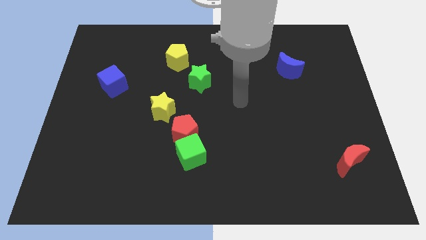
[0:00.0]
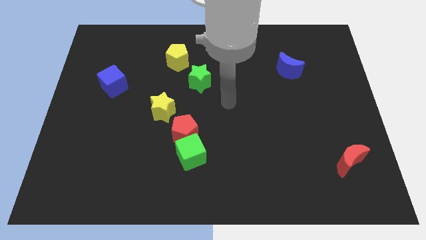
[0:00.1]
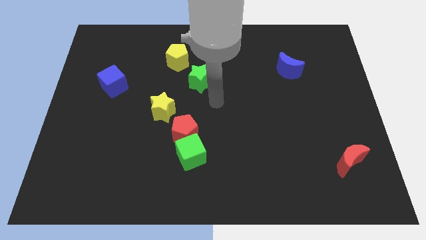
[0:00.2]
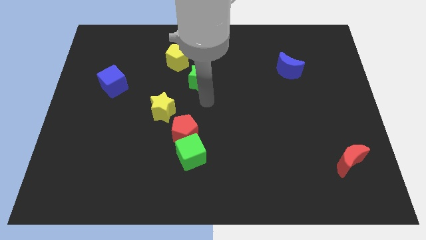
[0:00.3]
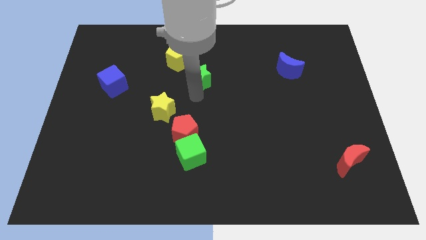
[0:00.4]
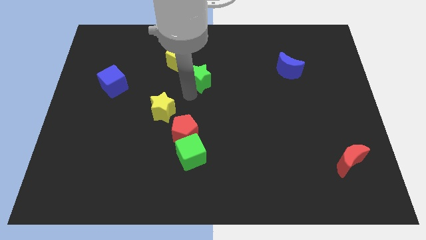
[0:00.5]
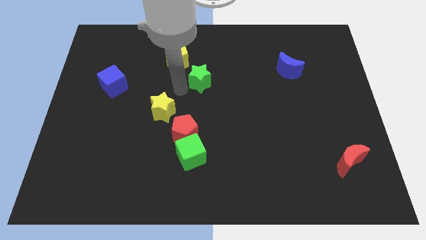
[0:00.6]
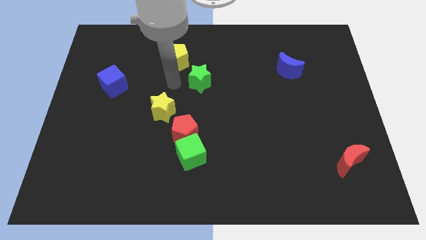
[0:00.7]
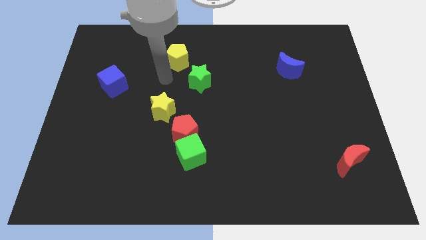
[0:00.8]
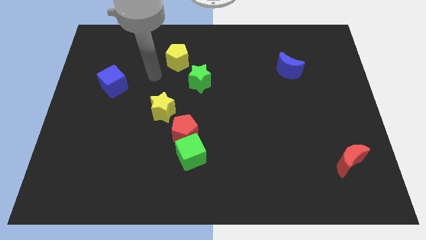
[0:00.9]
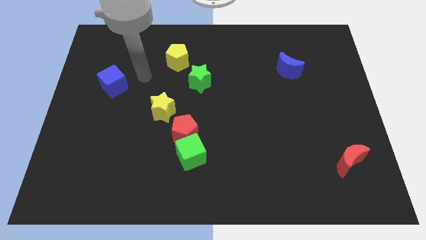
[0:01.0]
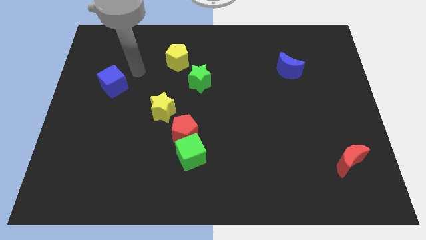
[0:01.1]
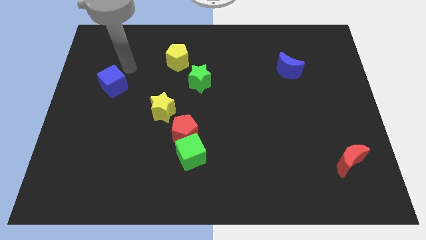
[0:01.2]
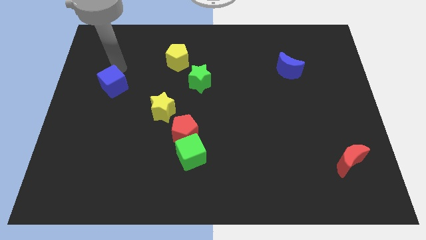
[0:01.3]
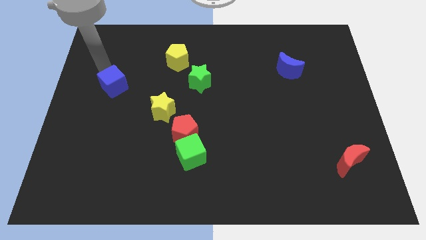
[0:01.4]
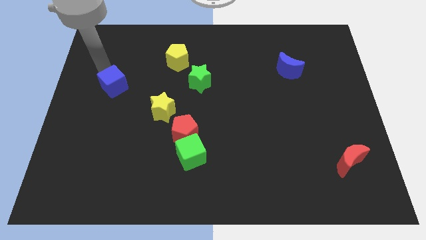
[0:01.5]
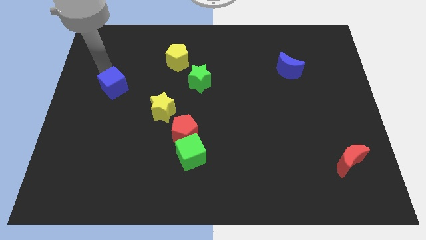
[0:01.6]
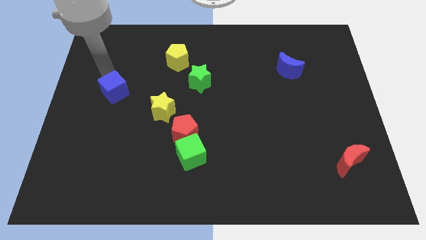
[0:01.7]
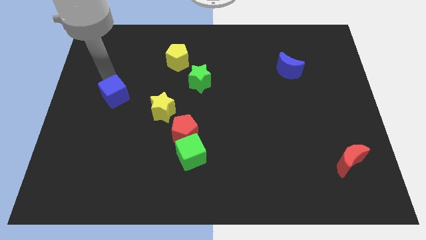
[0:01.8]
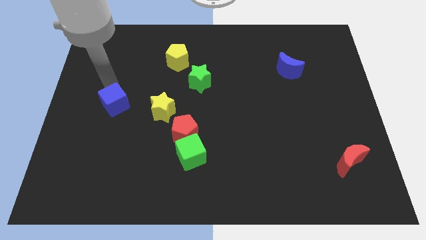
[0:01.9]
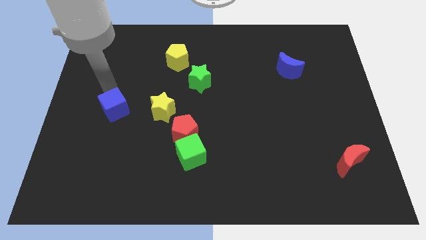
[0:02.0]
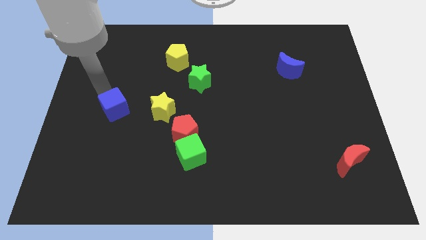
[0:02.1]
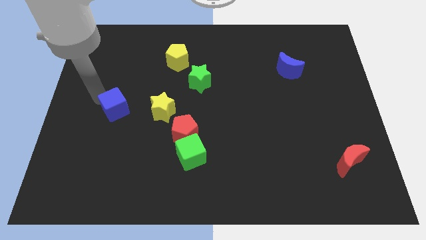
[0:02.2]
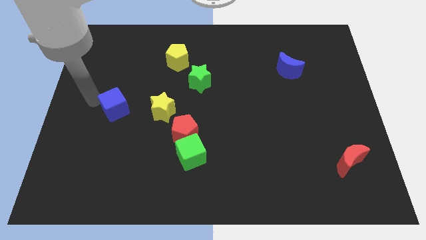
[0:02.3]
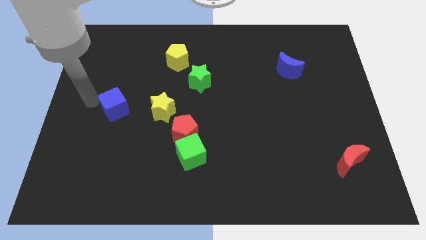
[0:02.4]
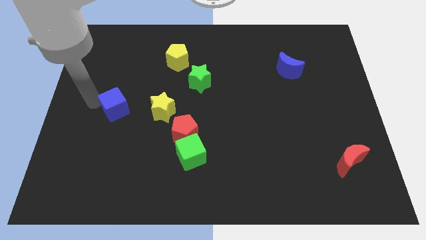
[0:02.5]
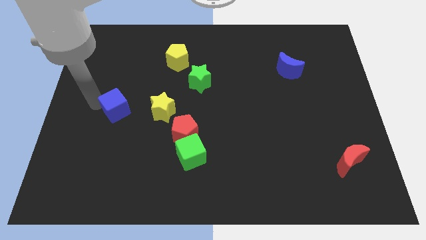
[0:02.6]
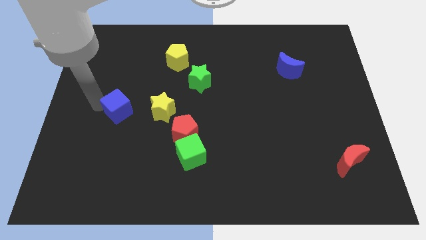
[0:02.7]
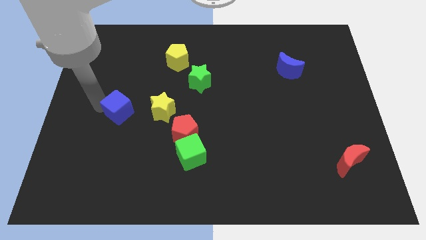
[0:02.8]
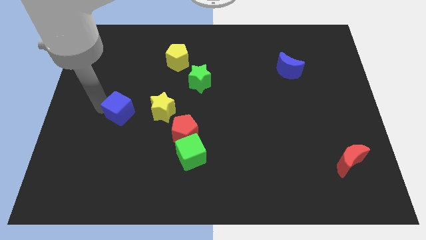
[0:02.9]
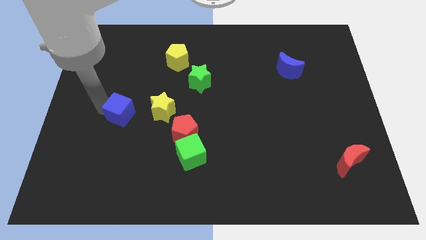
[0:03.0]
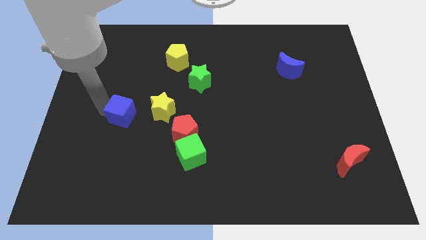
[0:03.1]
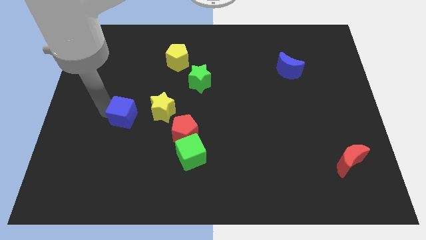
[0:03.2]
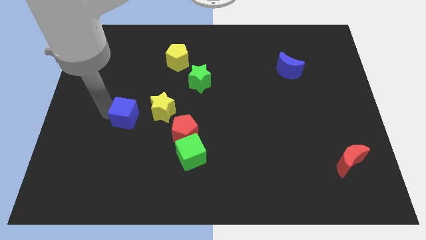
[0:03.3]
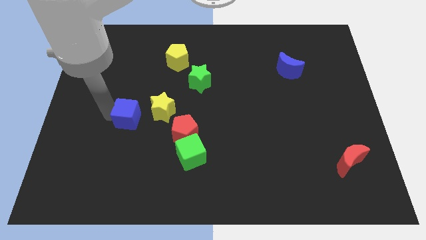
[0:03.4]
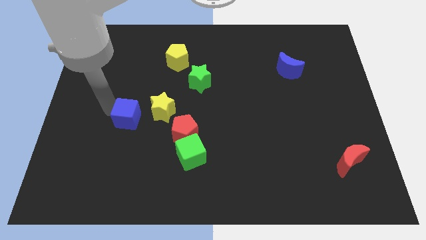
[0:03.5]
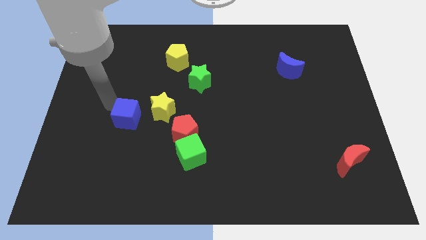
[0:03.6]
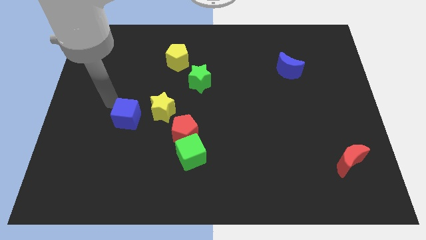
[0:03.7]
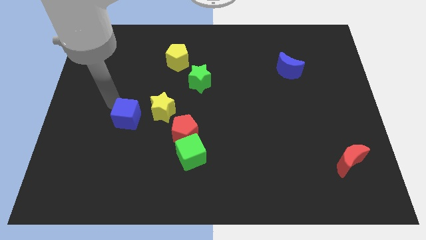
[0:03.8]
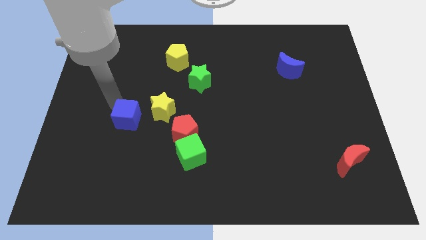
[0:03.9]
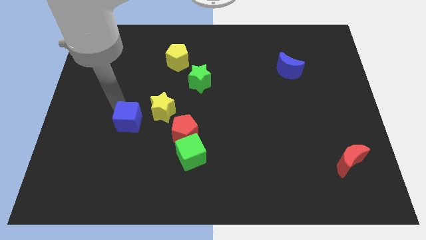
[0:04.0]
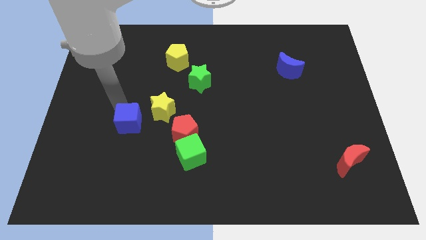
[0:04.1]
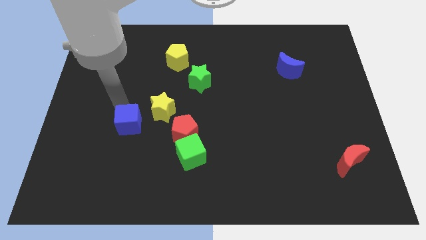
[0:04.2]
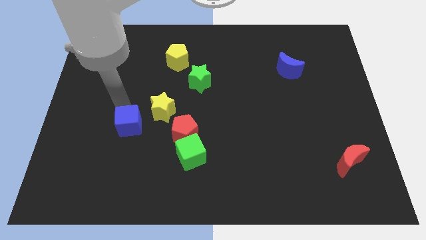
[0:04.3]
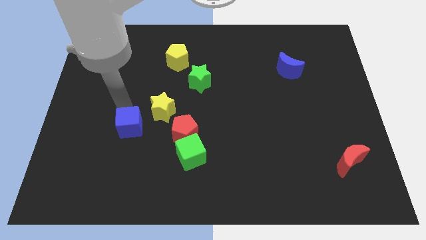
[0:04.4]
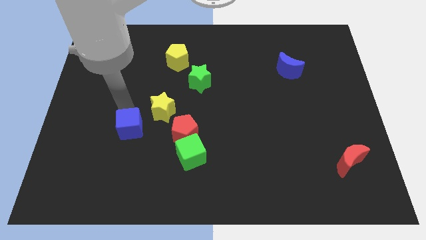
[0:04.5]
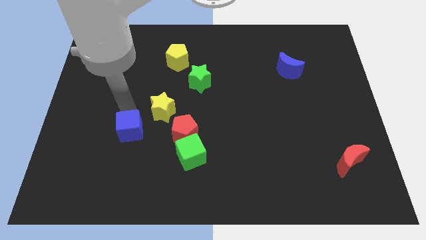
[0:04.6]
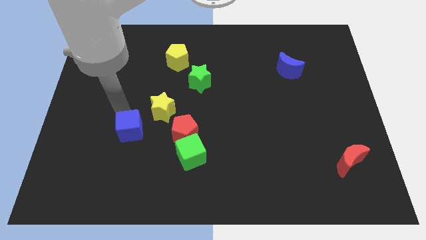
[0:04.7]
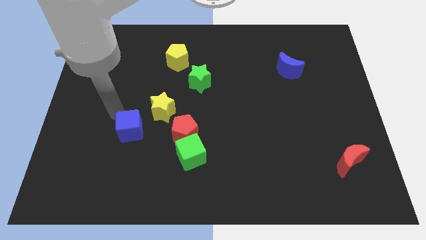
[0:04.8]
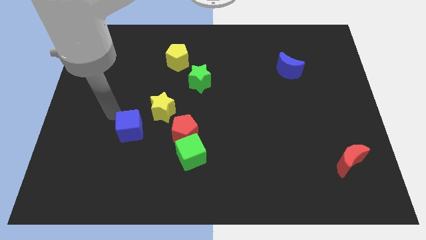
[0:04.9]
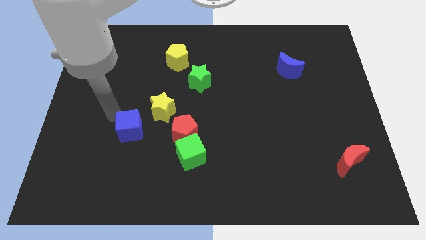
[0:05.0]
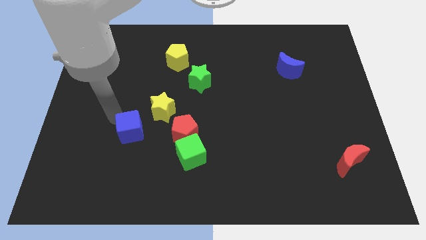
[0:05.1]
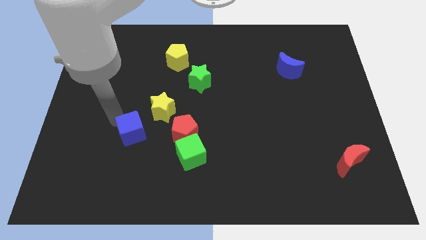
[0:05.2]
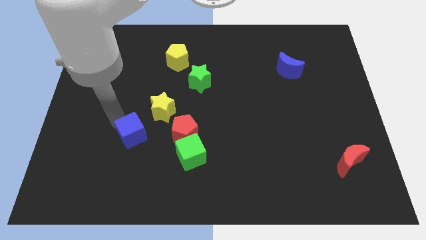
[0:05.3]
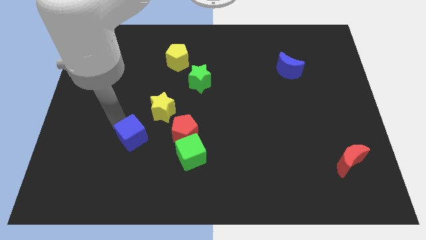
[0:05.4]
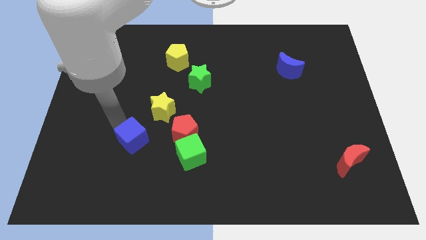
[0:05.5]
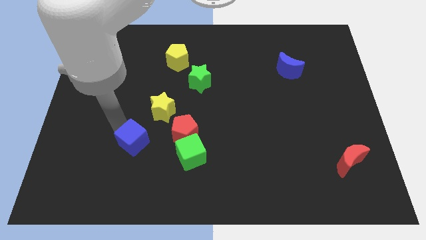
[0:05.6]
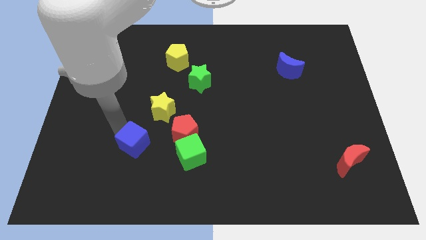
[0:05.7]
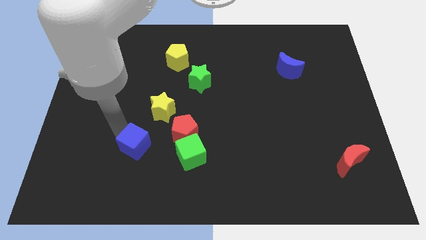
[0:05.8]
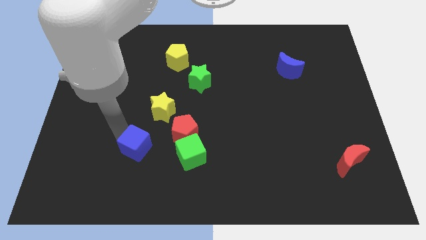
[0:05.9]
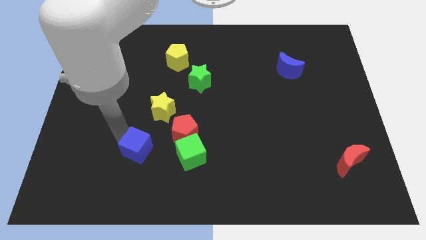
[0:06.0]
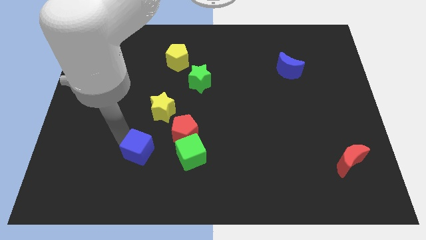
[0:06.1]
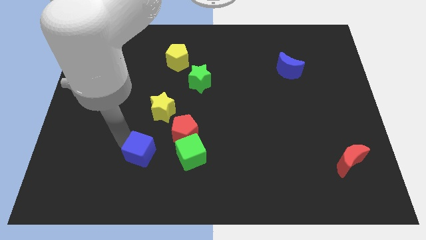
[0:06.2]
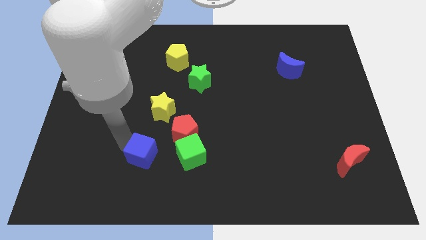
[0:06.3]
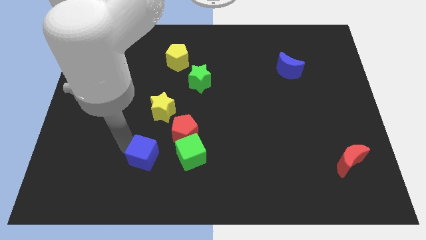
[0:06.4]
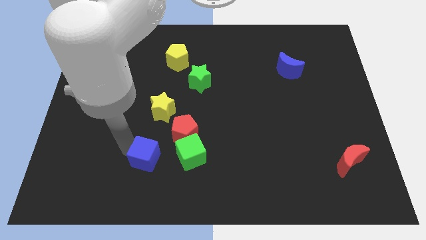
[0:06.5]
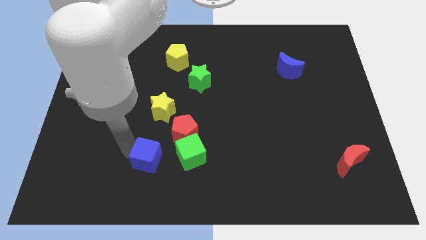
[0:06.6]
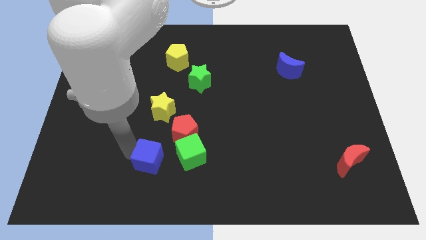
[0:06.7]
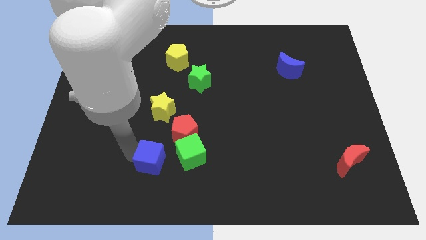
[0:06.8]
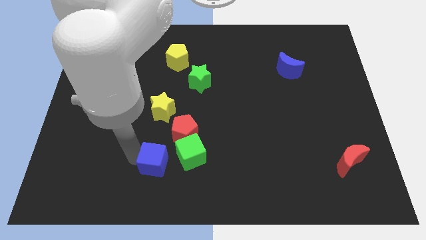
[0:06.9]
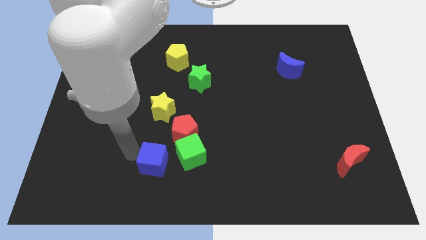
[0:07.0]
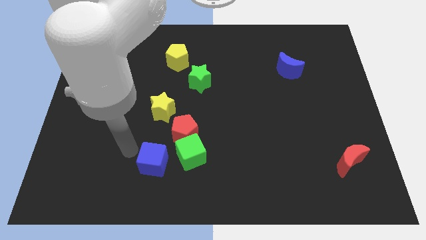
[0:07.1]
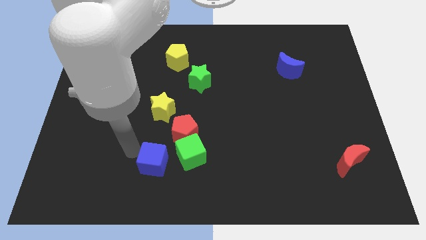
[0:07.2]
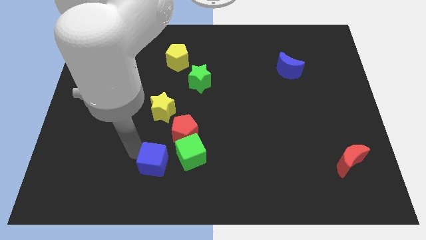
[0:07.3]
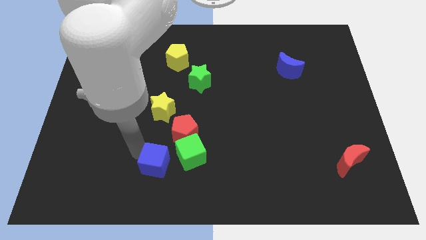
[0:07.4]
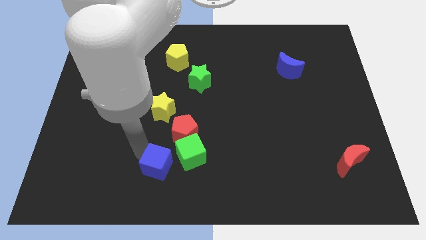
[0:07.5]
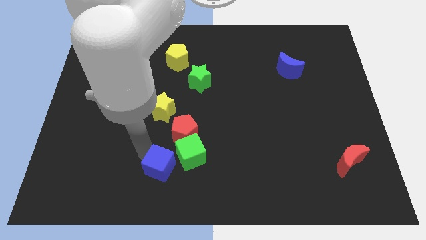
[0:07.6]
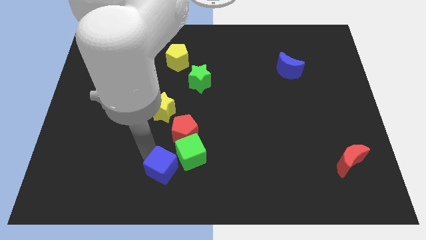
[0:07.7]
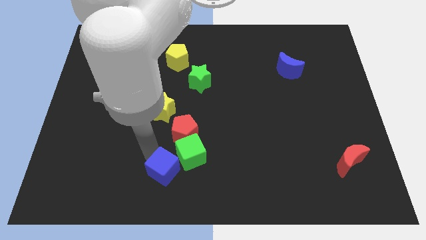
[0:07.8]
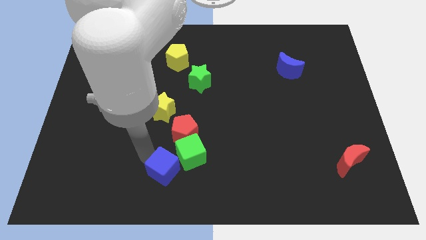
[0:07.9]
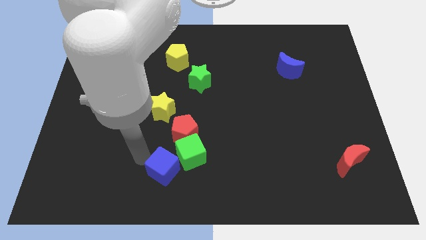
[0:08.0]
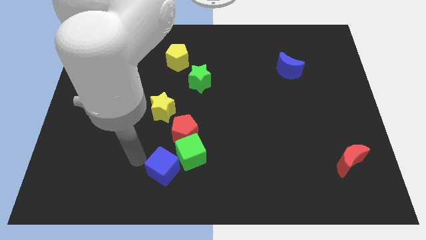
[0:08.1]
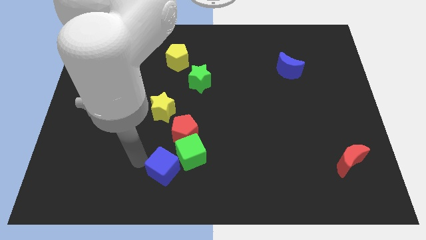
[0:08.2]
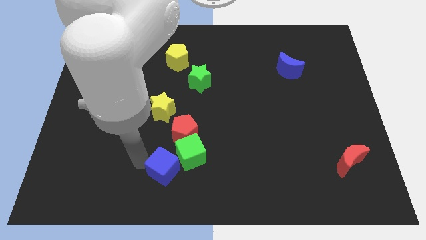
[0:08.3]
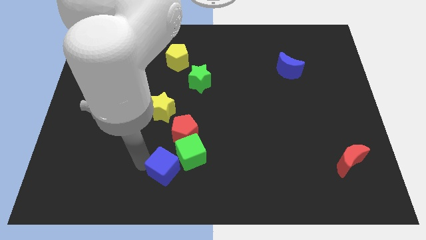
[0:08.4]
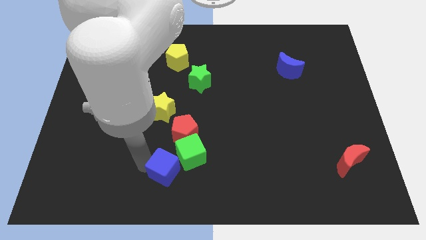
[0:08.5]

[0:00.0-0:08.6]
move the blue cube to the bottom side
